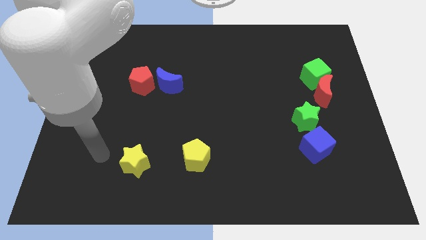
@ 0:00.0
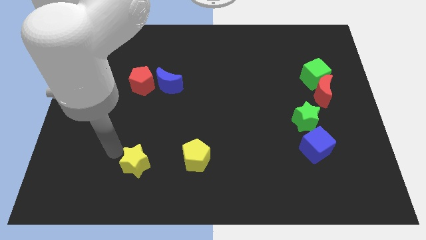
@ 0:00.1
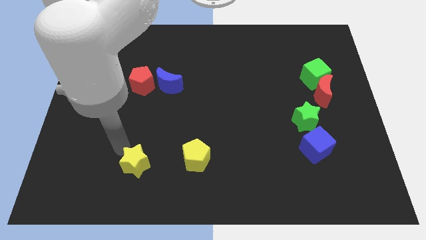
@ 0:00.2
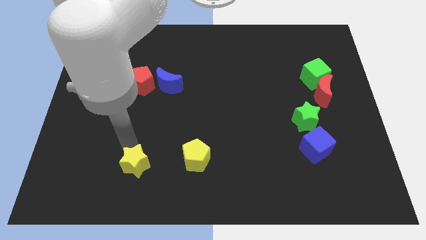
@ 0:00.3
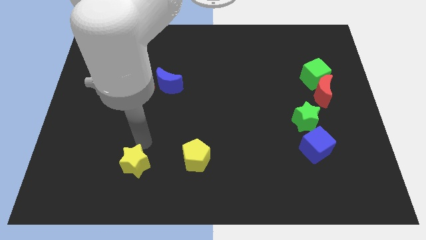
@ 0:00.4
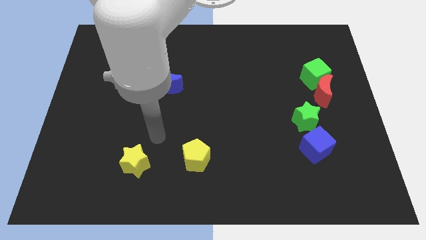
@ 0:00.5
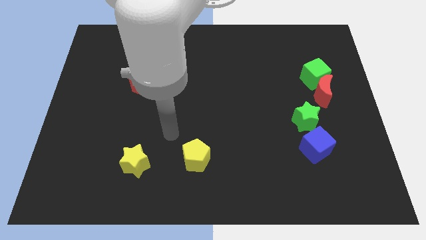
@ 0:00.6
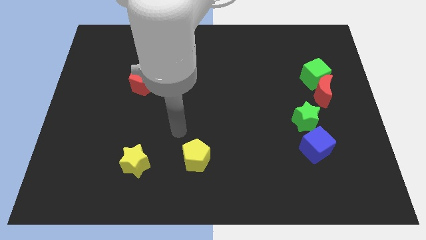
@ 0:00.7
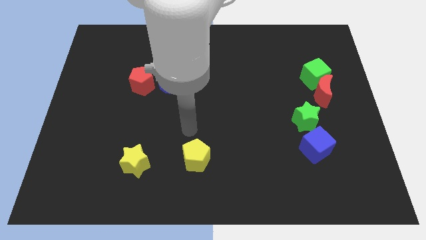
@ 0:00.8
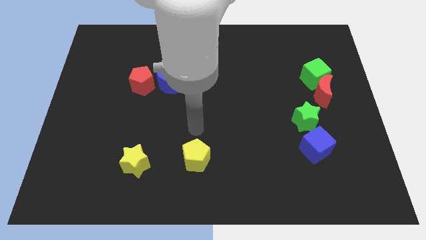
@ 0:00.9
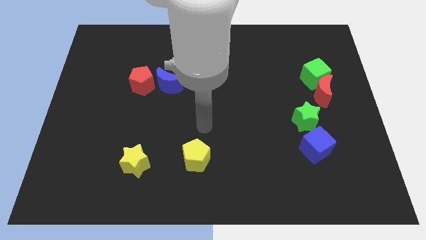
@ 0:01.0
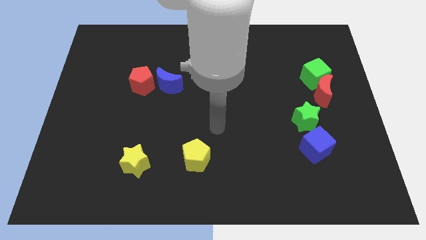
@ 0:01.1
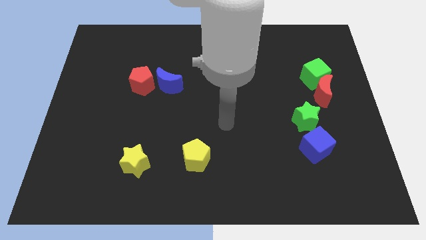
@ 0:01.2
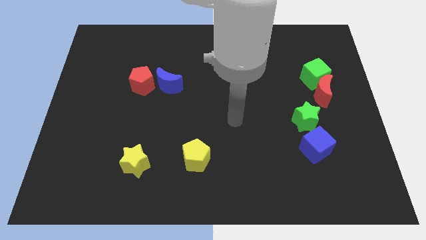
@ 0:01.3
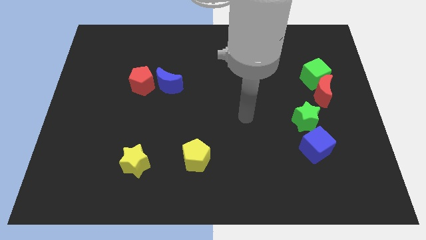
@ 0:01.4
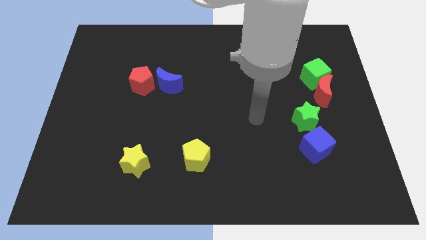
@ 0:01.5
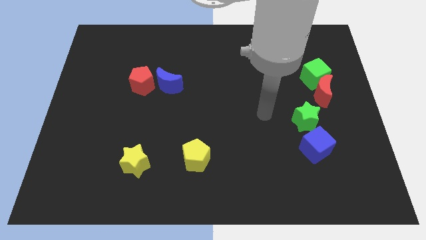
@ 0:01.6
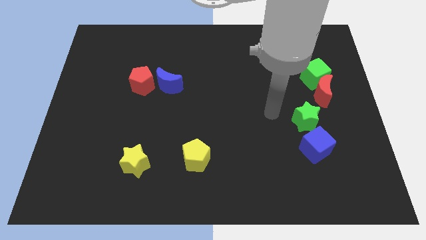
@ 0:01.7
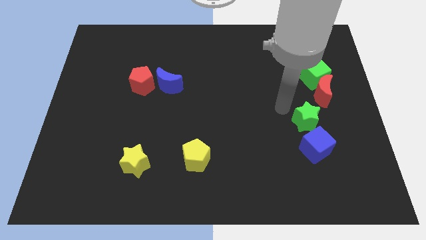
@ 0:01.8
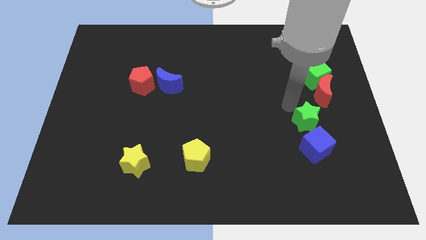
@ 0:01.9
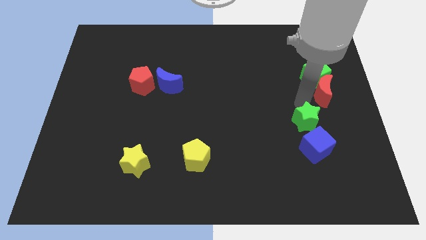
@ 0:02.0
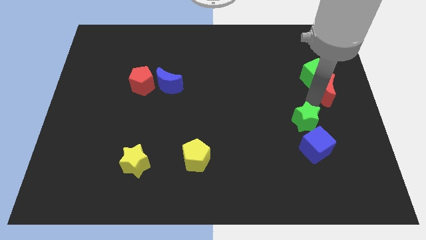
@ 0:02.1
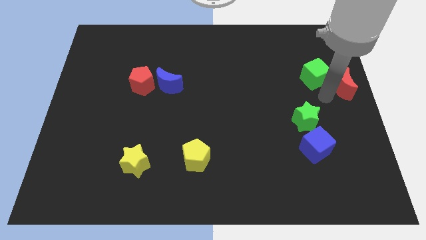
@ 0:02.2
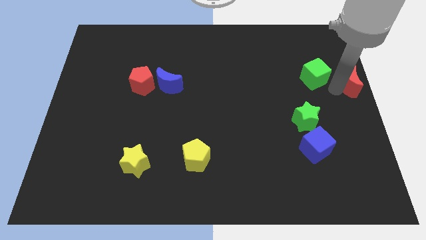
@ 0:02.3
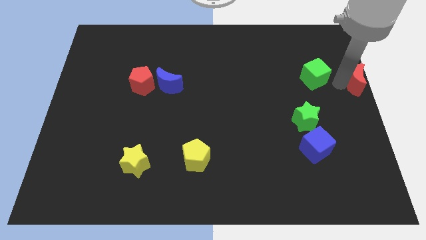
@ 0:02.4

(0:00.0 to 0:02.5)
pull the green cube apart from the red moon

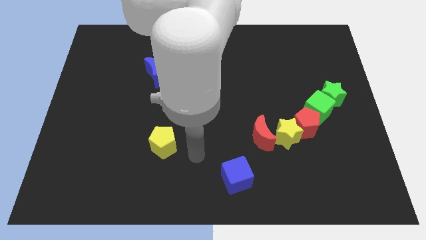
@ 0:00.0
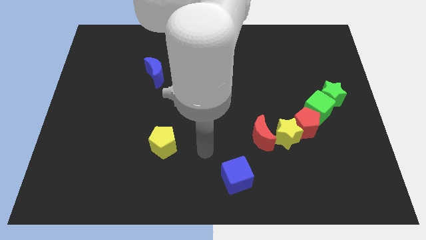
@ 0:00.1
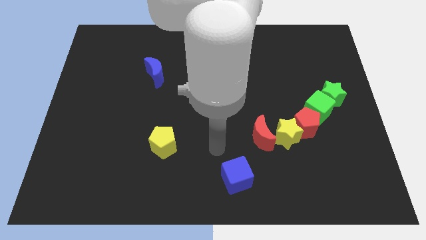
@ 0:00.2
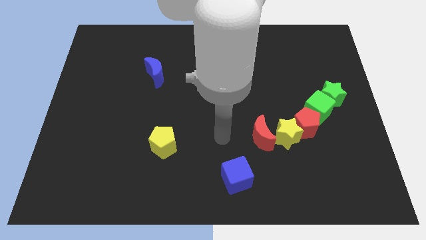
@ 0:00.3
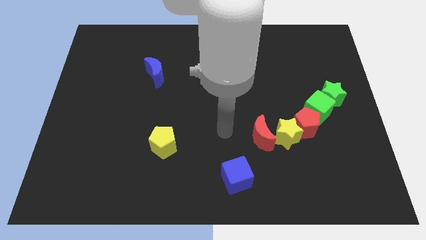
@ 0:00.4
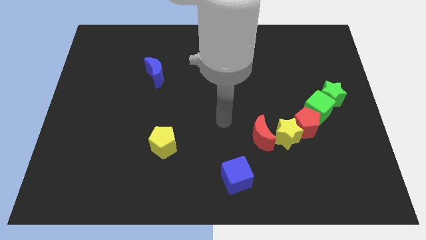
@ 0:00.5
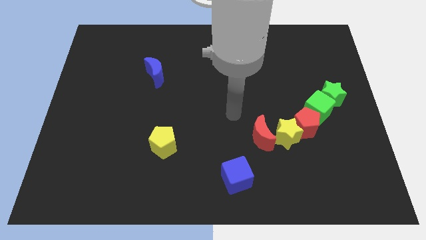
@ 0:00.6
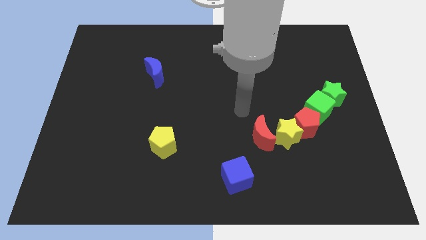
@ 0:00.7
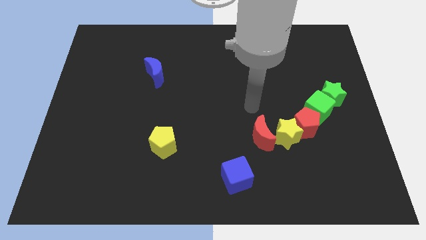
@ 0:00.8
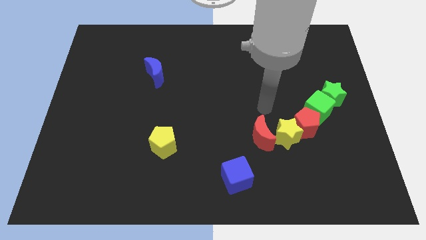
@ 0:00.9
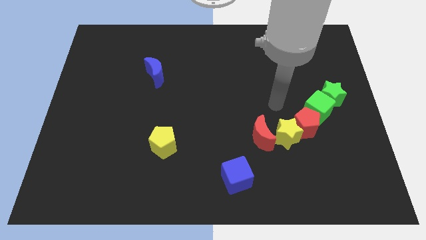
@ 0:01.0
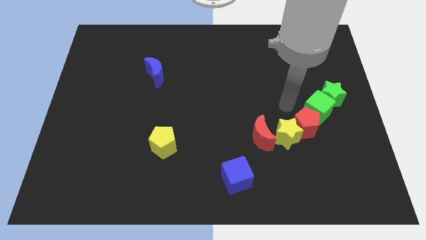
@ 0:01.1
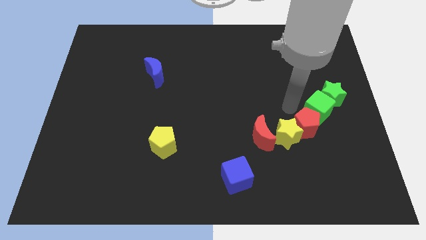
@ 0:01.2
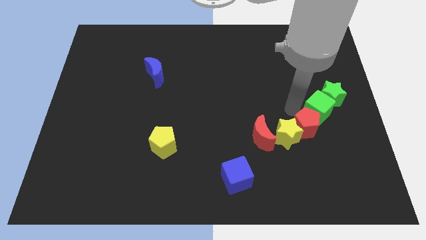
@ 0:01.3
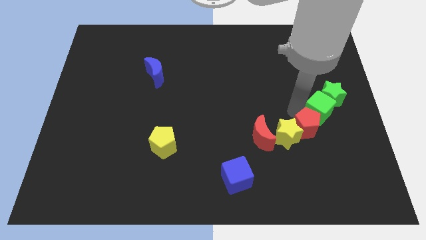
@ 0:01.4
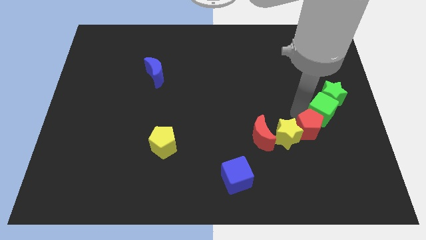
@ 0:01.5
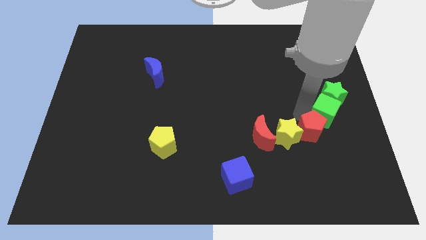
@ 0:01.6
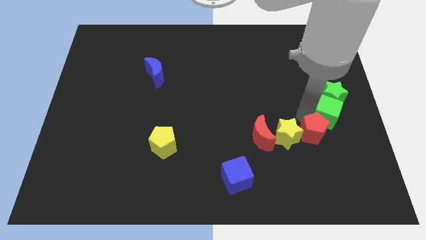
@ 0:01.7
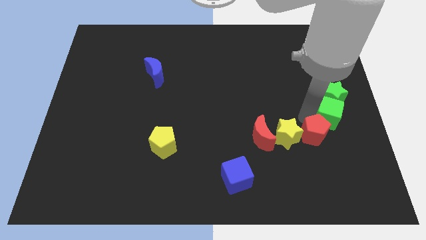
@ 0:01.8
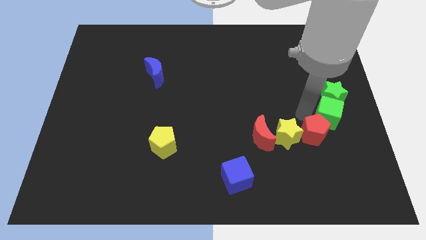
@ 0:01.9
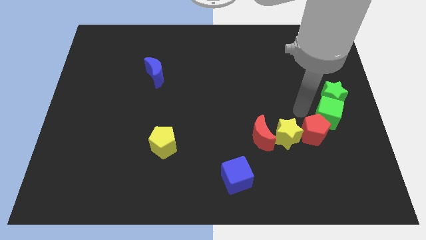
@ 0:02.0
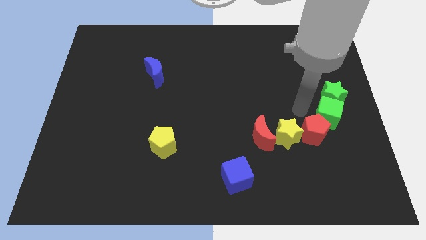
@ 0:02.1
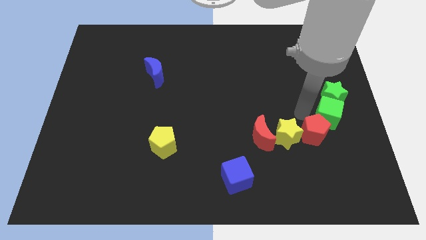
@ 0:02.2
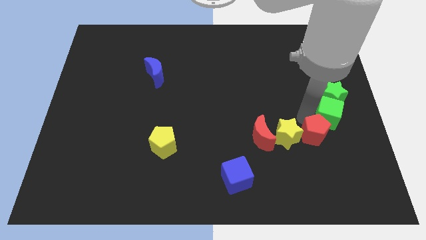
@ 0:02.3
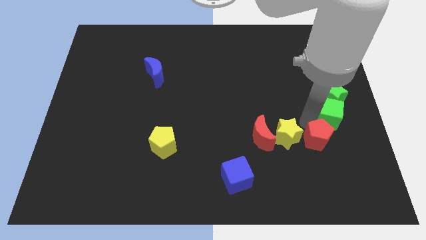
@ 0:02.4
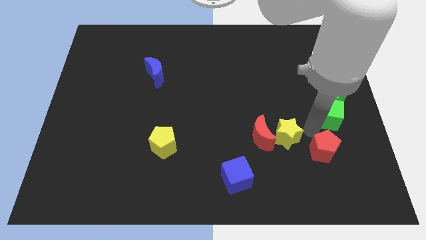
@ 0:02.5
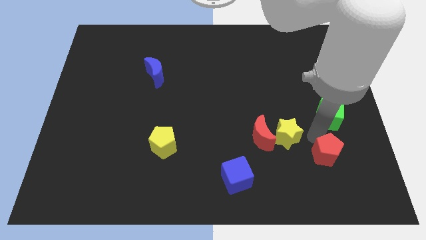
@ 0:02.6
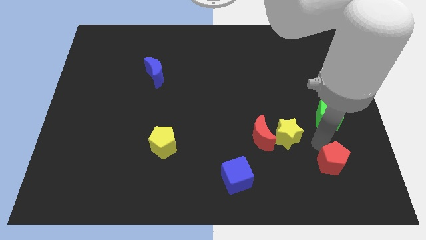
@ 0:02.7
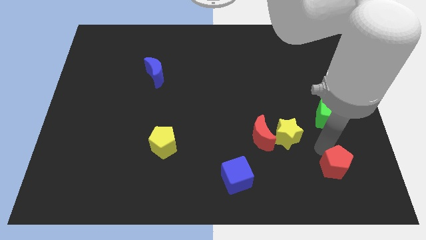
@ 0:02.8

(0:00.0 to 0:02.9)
move the red pentagon away from the yellow star and green cube

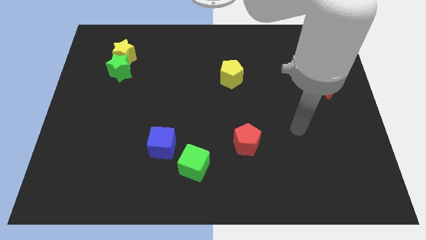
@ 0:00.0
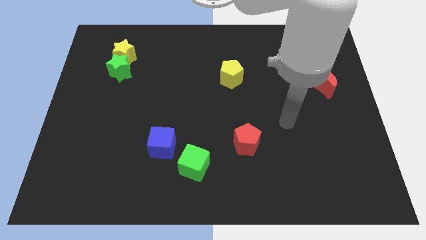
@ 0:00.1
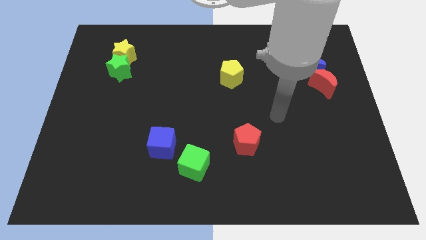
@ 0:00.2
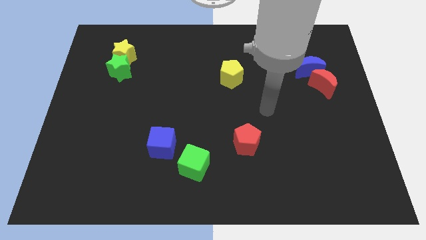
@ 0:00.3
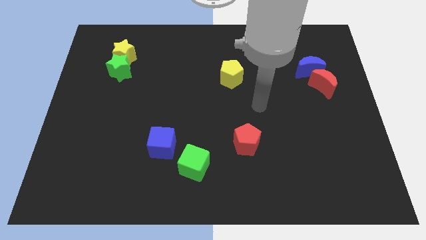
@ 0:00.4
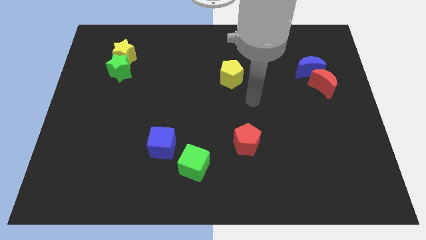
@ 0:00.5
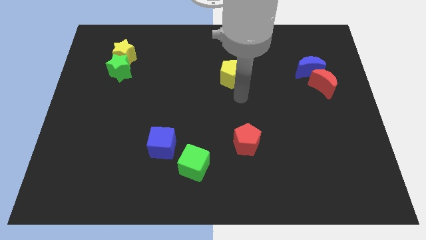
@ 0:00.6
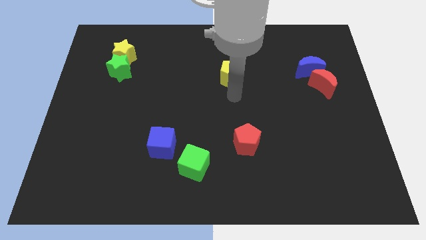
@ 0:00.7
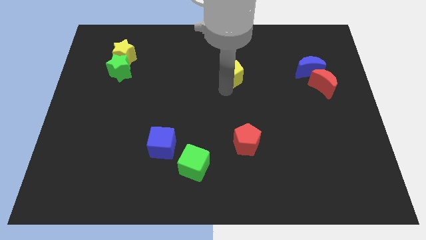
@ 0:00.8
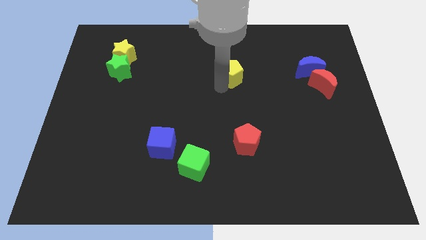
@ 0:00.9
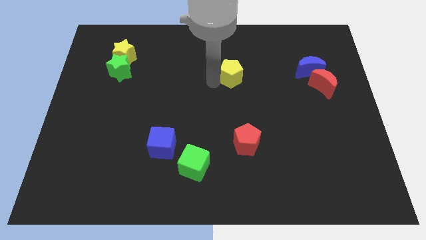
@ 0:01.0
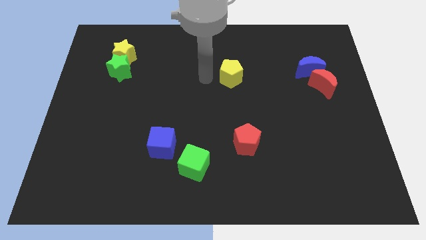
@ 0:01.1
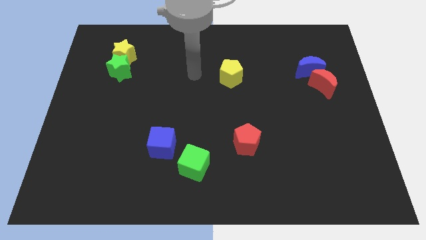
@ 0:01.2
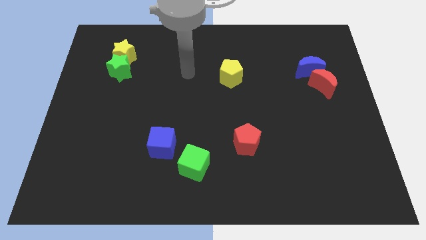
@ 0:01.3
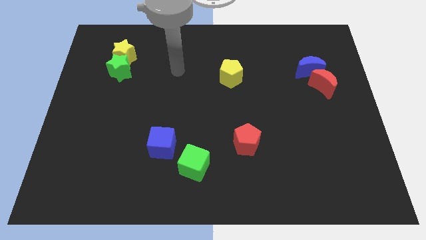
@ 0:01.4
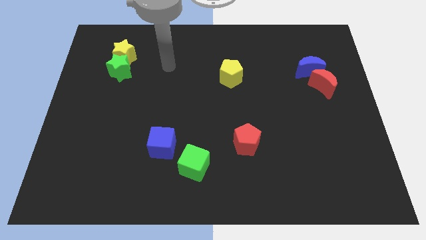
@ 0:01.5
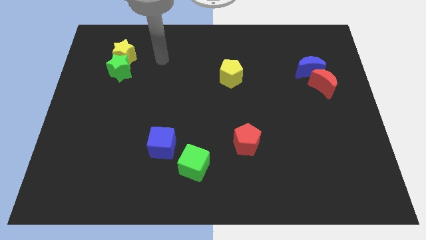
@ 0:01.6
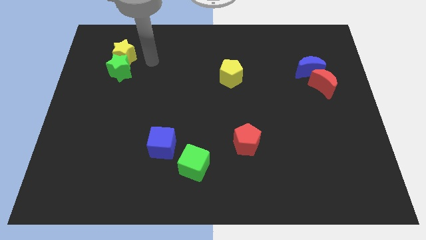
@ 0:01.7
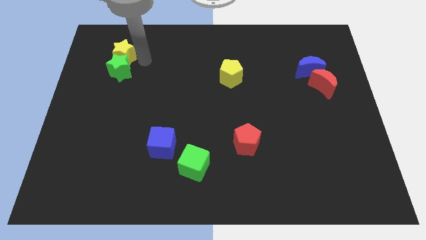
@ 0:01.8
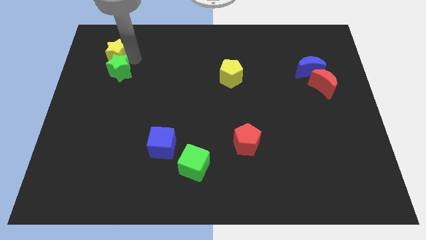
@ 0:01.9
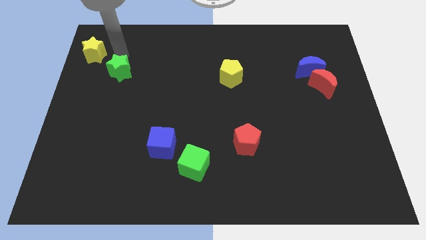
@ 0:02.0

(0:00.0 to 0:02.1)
separate the green star from the yellow star

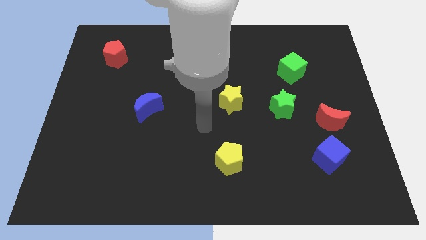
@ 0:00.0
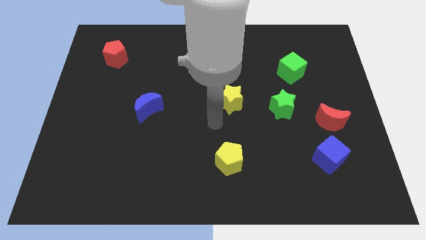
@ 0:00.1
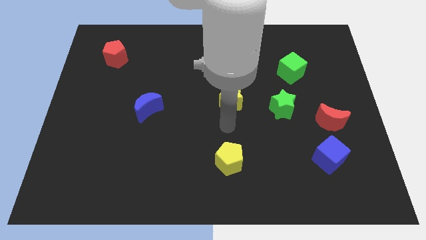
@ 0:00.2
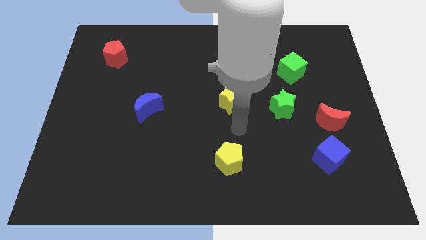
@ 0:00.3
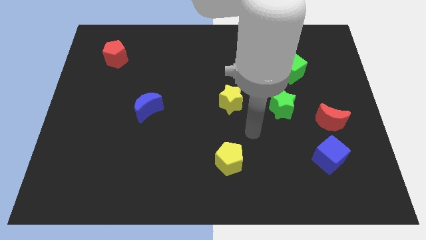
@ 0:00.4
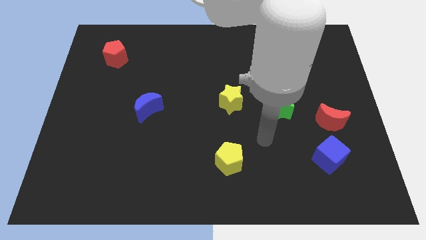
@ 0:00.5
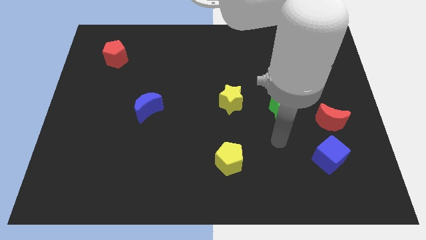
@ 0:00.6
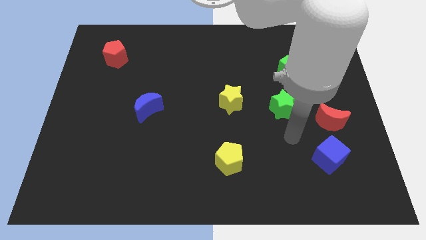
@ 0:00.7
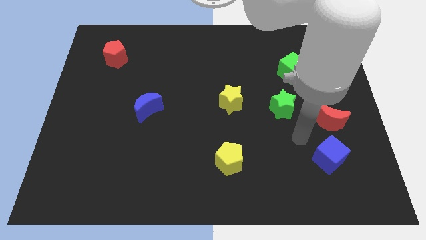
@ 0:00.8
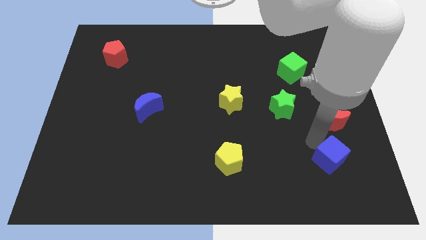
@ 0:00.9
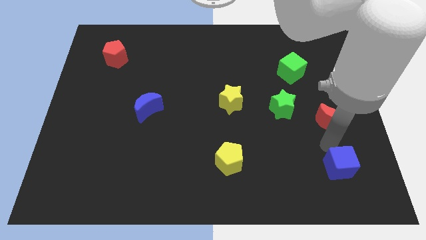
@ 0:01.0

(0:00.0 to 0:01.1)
separate the red moon from the blue cube

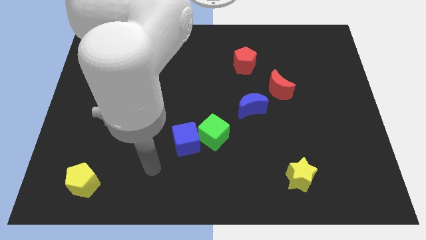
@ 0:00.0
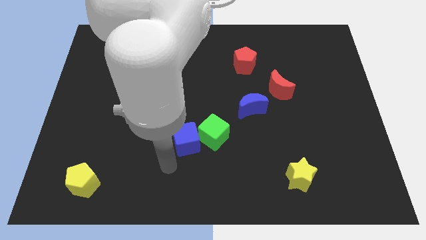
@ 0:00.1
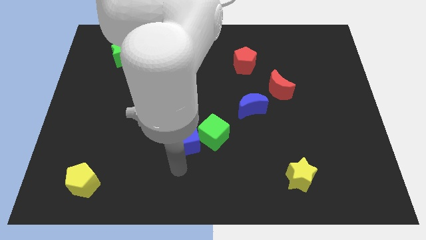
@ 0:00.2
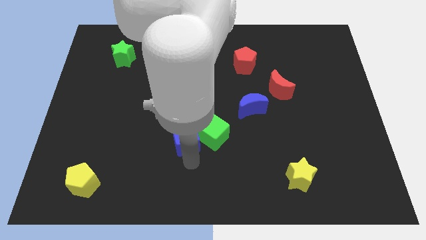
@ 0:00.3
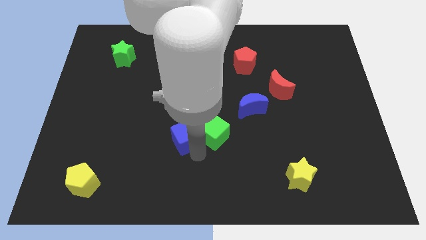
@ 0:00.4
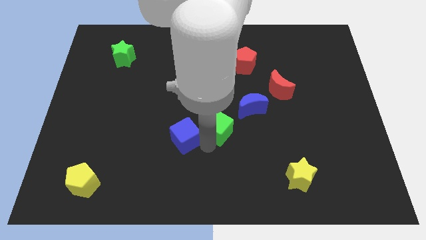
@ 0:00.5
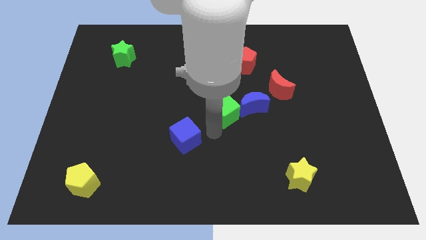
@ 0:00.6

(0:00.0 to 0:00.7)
pull the blue cube apart from the green cube

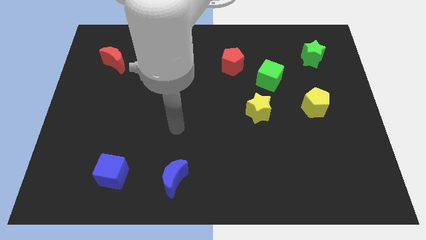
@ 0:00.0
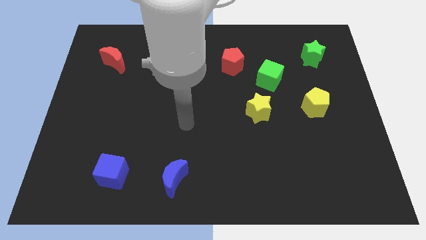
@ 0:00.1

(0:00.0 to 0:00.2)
separate the red pentagon from the green cube
